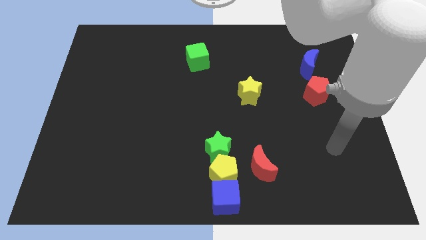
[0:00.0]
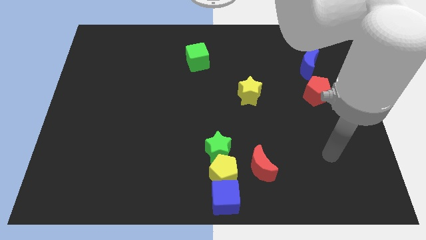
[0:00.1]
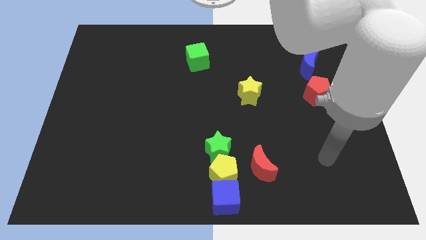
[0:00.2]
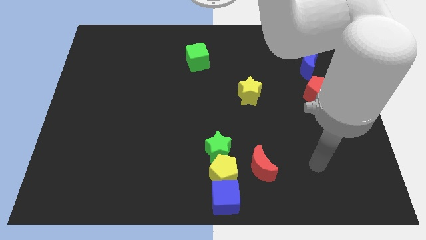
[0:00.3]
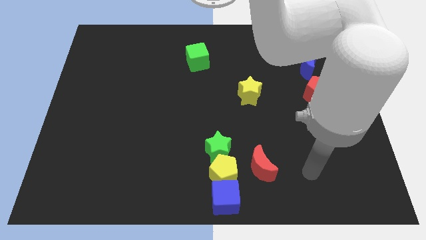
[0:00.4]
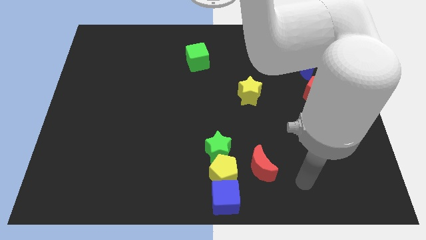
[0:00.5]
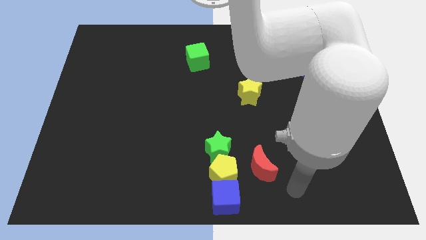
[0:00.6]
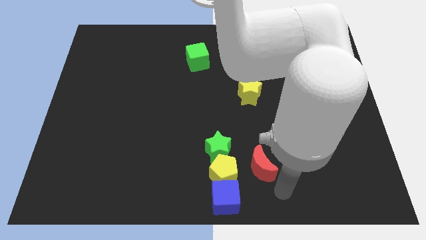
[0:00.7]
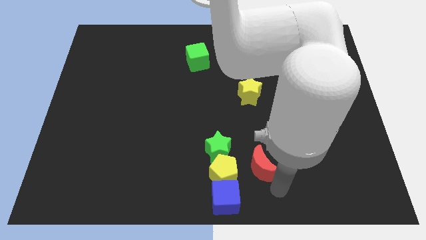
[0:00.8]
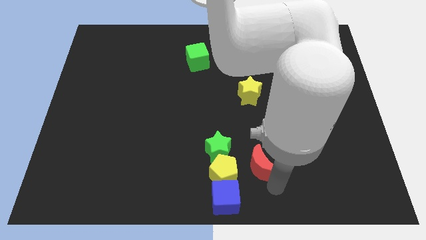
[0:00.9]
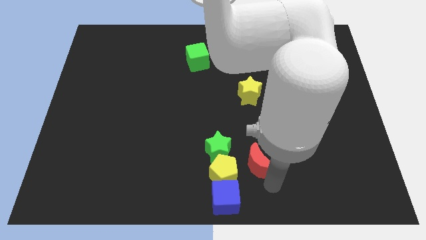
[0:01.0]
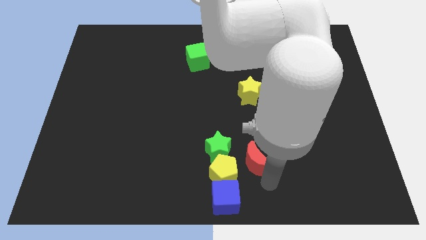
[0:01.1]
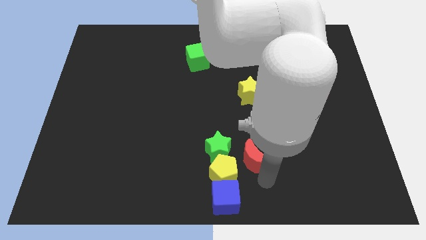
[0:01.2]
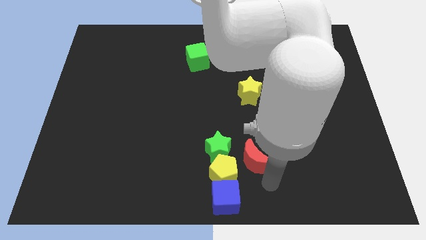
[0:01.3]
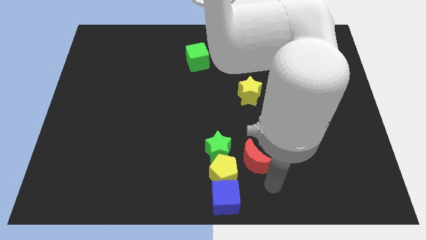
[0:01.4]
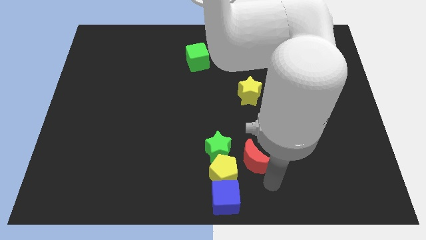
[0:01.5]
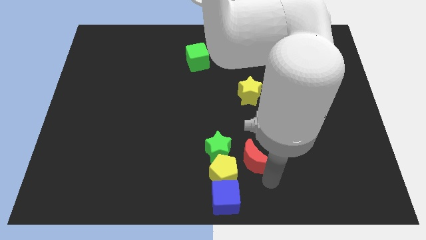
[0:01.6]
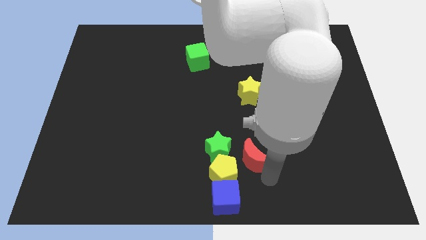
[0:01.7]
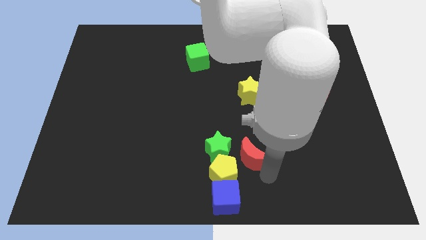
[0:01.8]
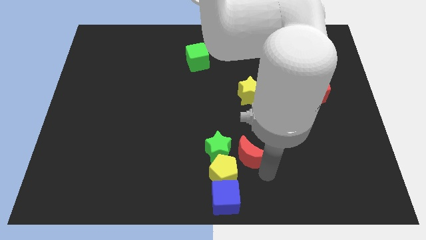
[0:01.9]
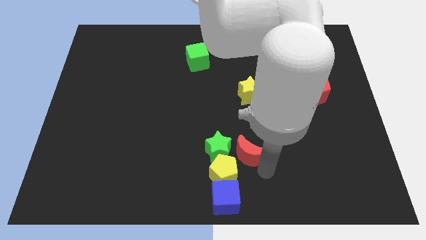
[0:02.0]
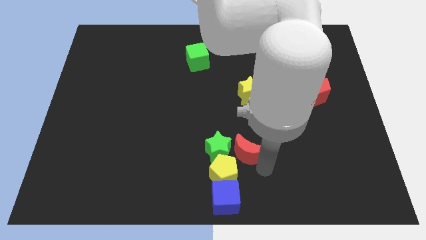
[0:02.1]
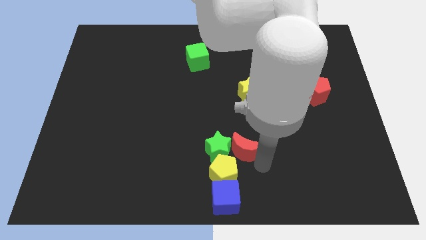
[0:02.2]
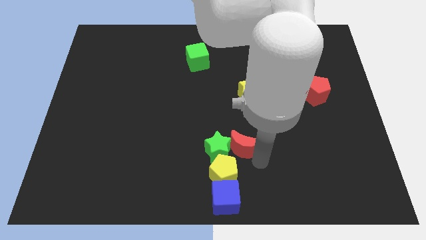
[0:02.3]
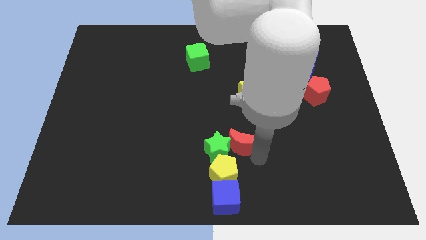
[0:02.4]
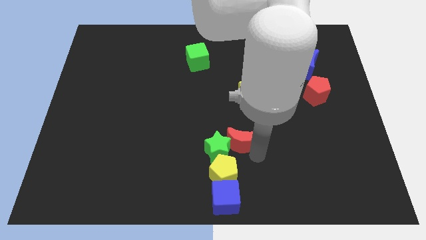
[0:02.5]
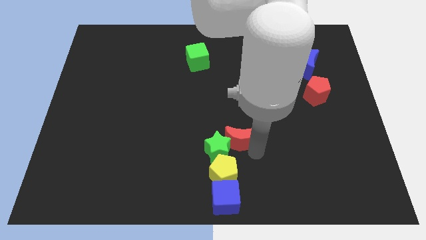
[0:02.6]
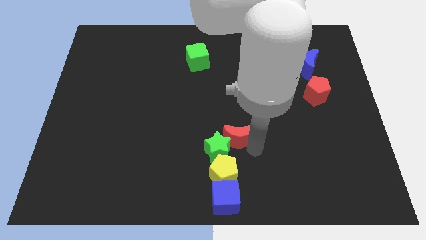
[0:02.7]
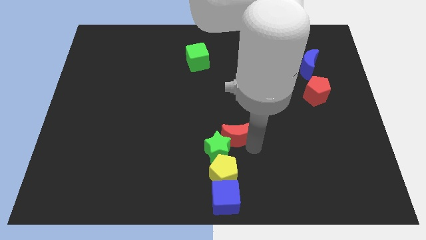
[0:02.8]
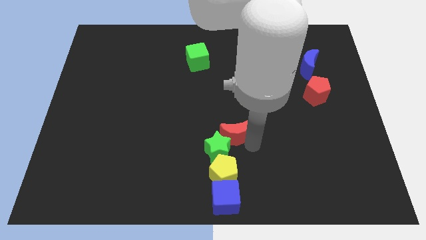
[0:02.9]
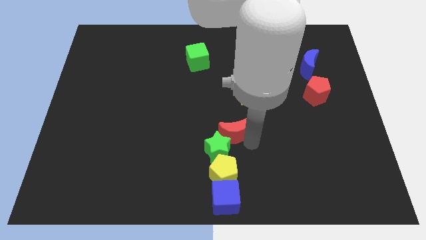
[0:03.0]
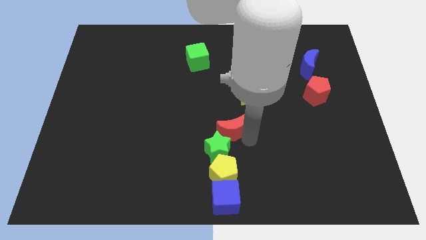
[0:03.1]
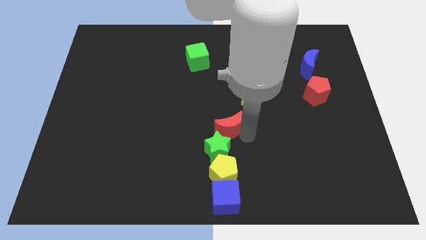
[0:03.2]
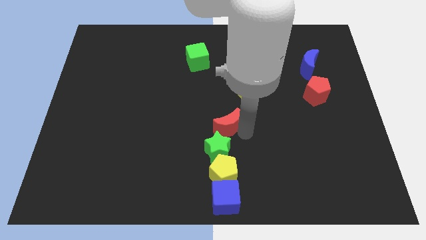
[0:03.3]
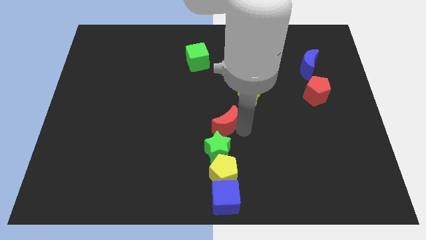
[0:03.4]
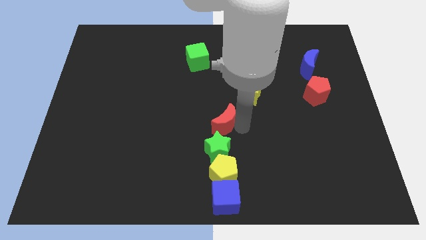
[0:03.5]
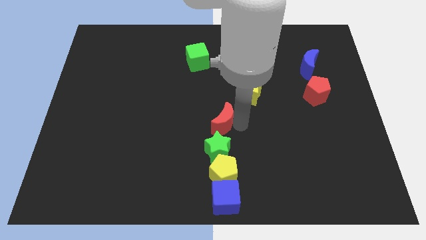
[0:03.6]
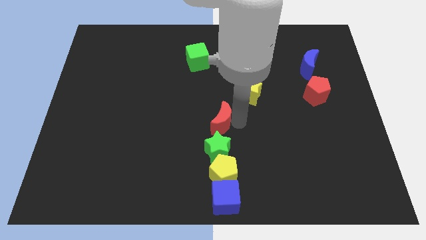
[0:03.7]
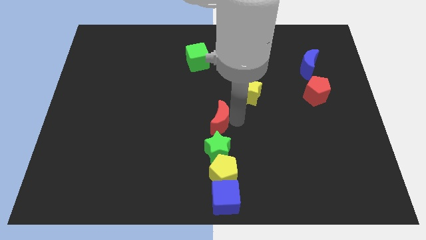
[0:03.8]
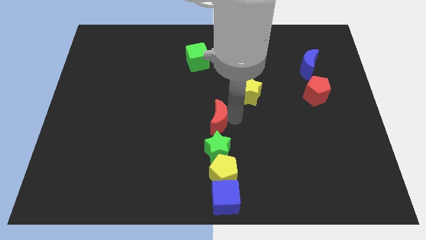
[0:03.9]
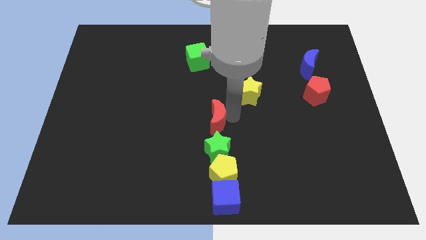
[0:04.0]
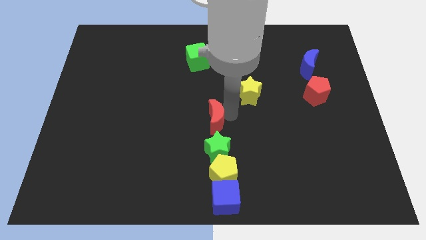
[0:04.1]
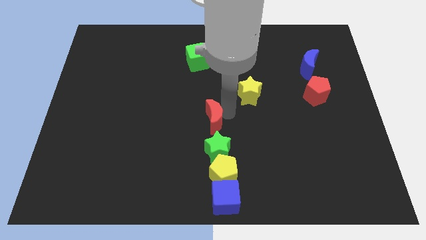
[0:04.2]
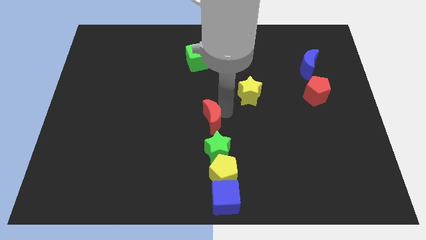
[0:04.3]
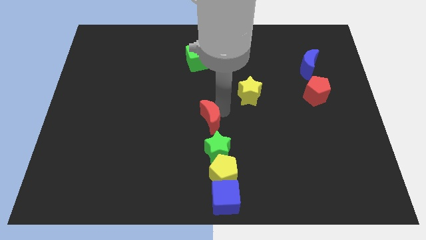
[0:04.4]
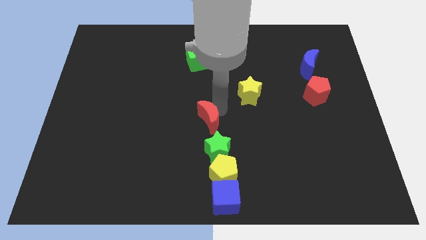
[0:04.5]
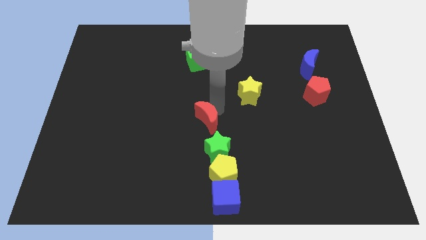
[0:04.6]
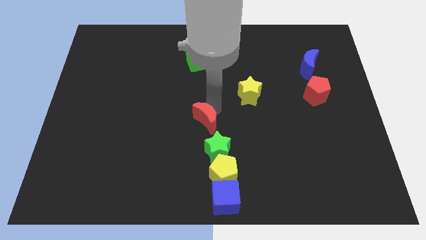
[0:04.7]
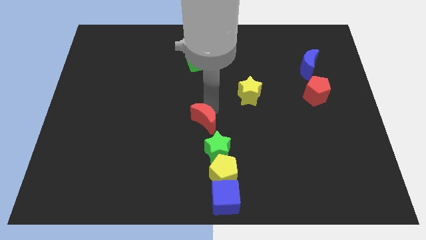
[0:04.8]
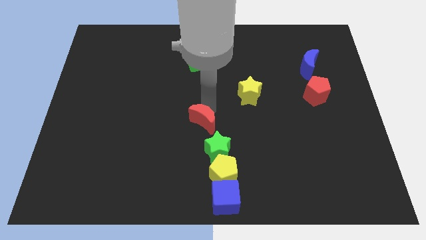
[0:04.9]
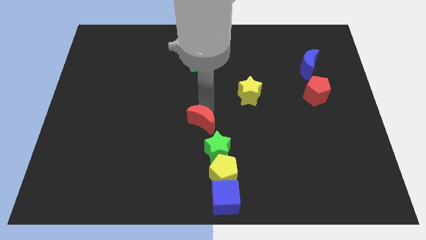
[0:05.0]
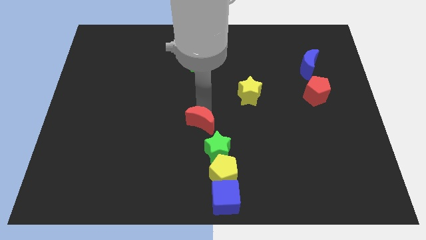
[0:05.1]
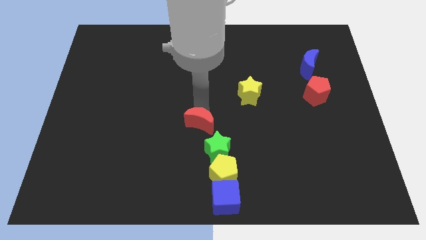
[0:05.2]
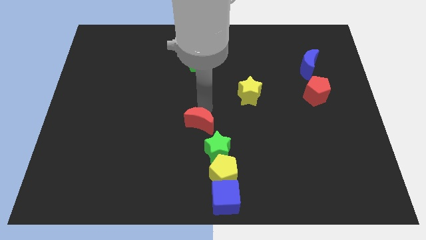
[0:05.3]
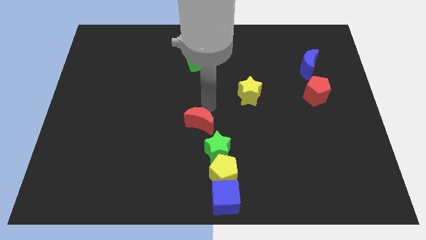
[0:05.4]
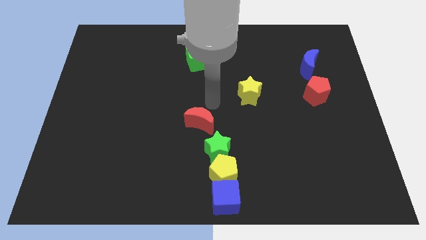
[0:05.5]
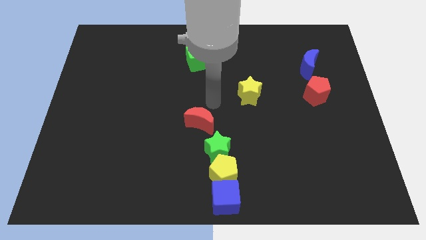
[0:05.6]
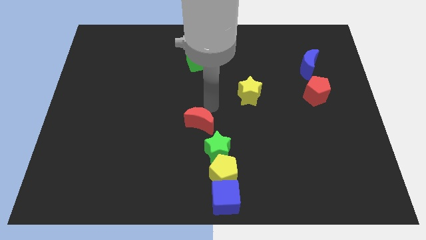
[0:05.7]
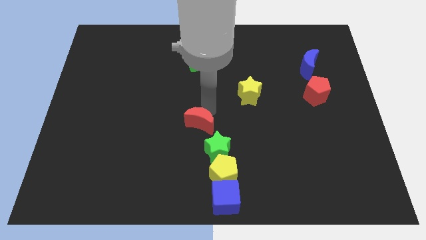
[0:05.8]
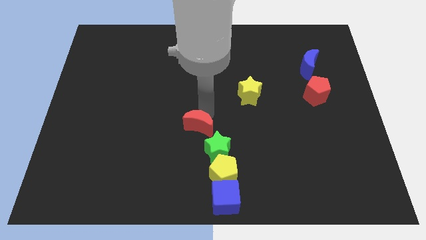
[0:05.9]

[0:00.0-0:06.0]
push the red moon a bit left

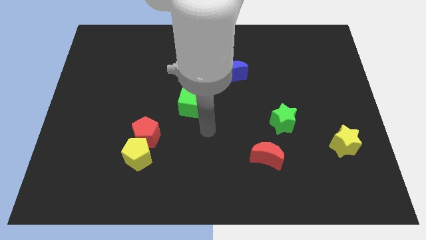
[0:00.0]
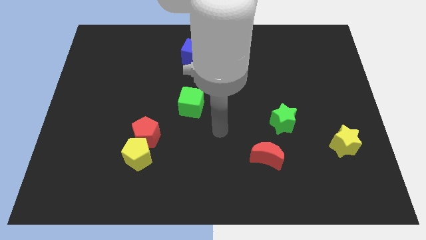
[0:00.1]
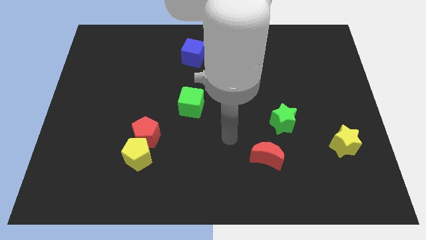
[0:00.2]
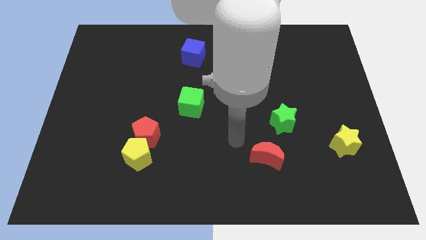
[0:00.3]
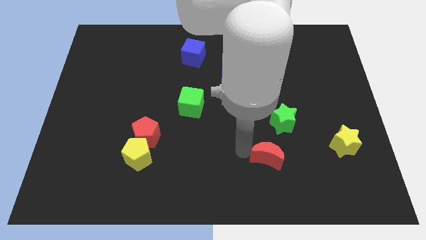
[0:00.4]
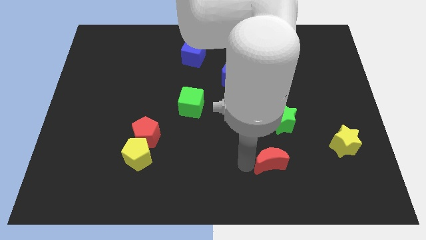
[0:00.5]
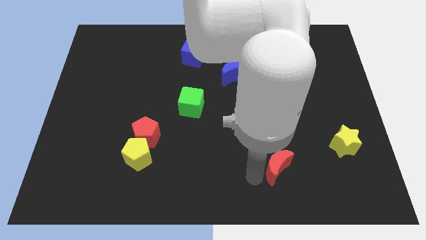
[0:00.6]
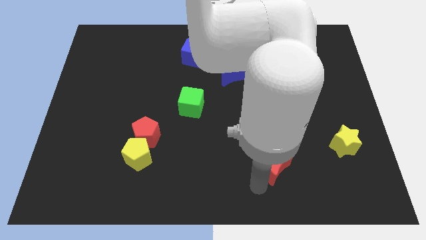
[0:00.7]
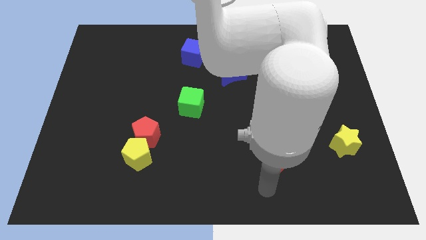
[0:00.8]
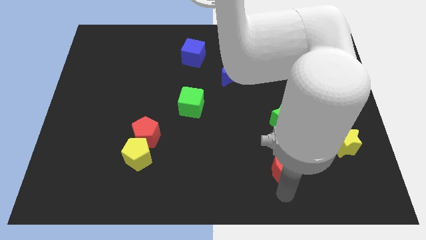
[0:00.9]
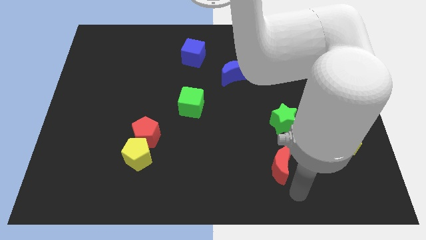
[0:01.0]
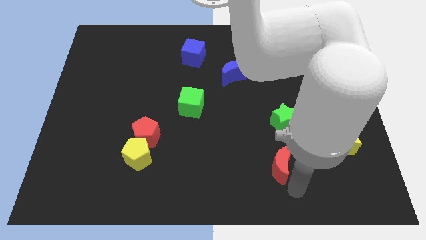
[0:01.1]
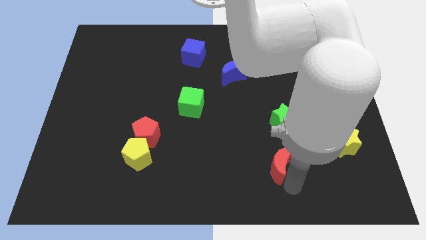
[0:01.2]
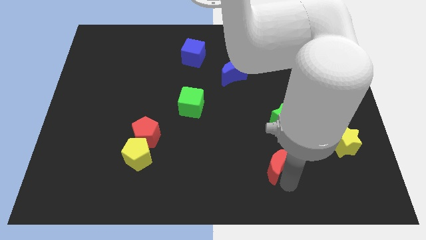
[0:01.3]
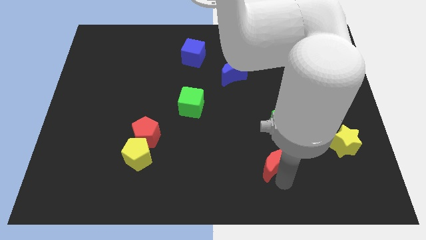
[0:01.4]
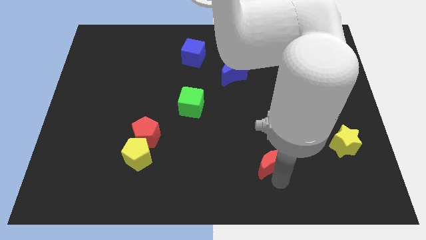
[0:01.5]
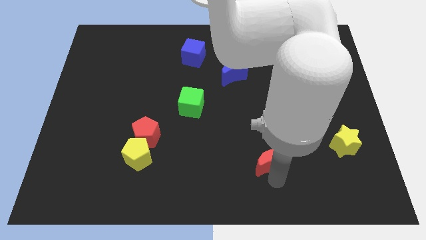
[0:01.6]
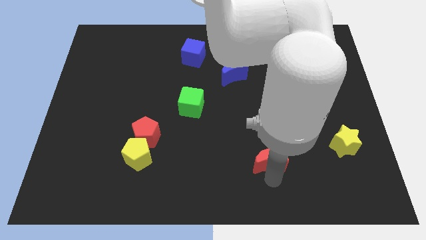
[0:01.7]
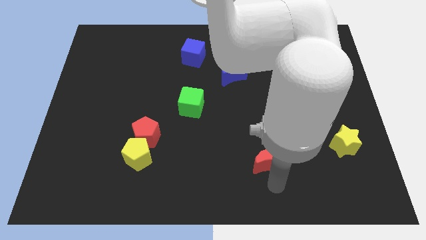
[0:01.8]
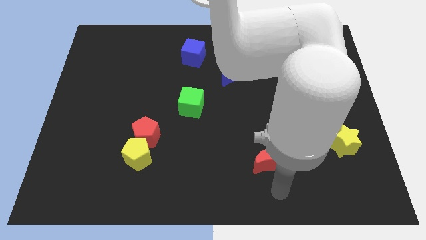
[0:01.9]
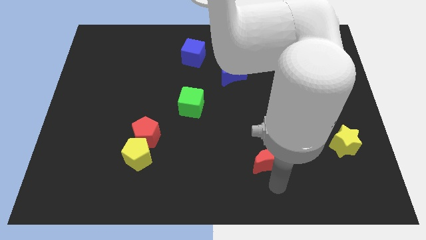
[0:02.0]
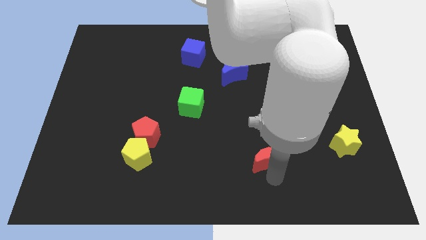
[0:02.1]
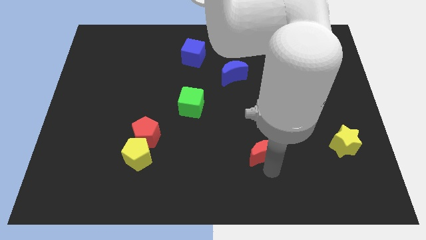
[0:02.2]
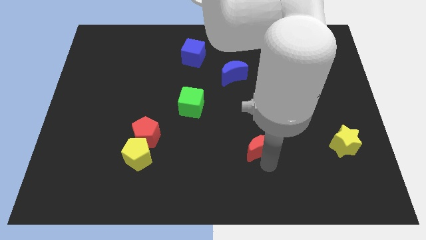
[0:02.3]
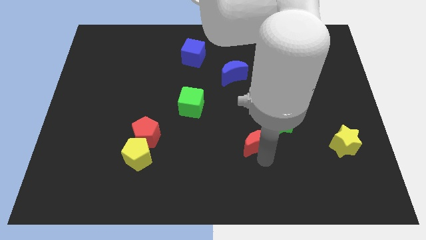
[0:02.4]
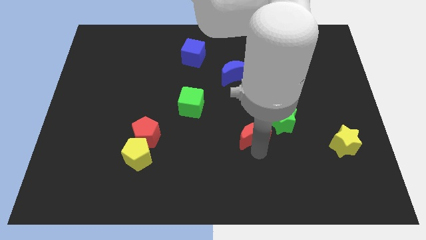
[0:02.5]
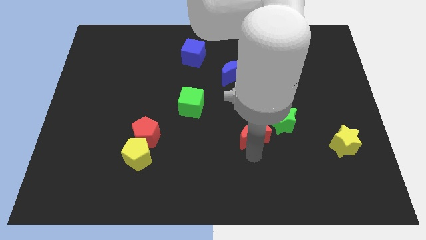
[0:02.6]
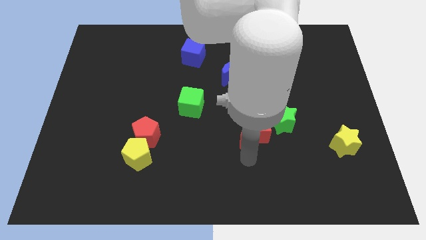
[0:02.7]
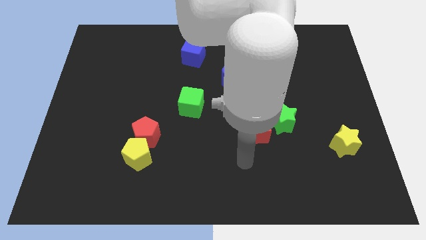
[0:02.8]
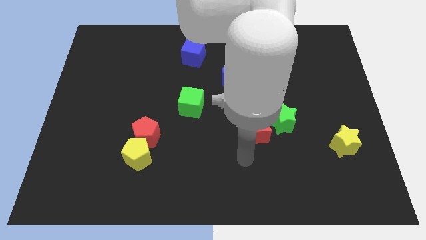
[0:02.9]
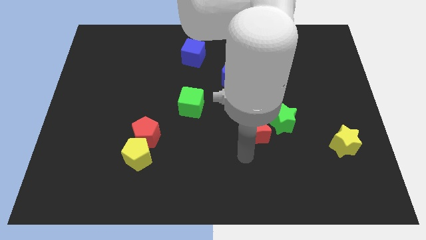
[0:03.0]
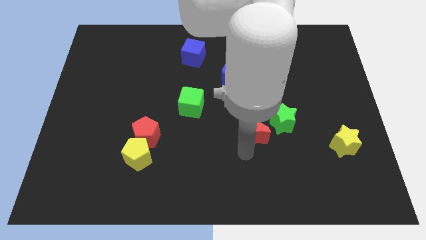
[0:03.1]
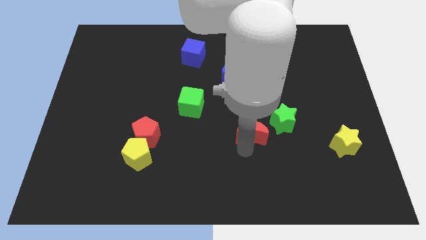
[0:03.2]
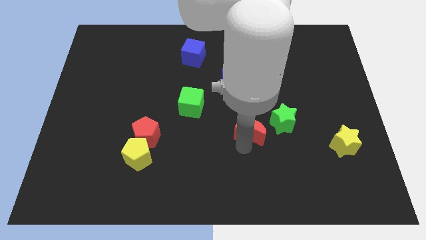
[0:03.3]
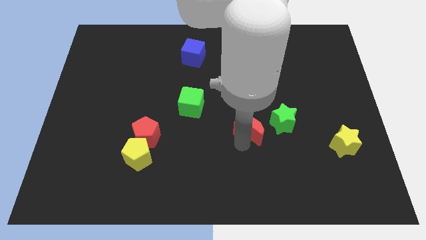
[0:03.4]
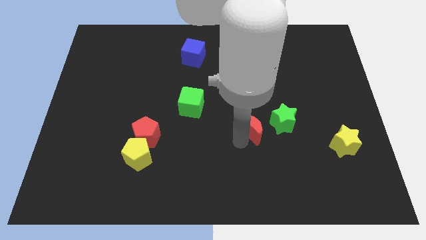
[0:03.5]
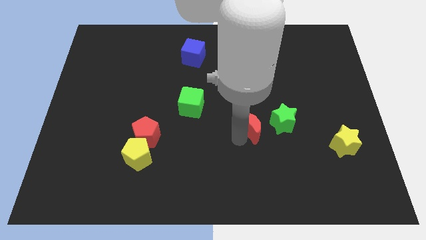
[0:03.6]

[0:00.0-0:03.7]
slide the red moon slightly upwards
